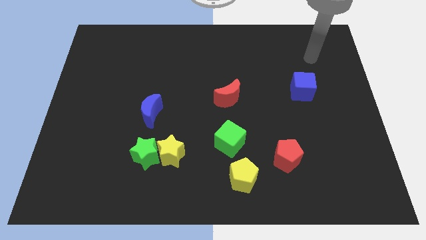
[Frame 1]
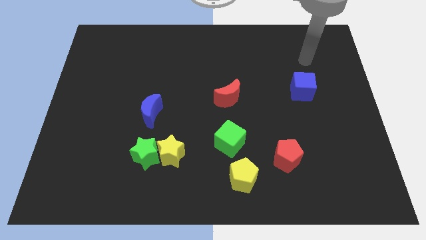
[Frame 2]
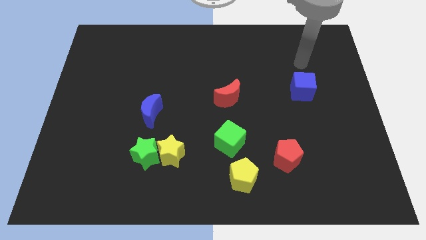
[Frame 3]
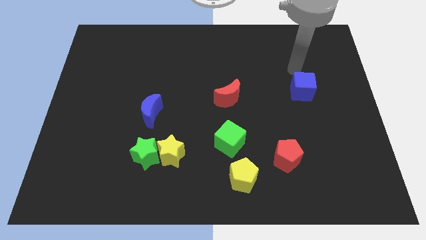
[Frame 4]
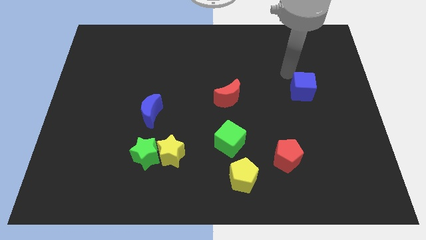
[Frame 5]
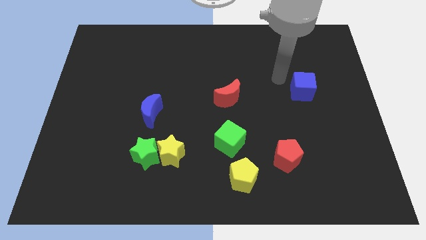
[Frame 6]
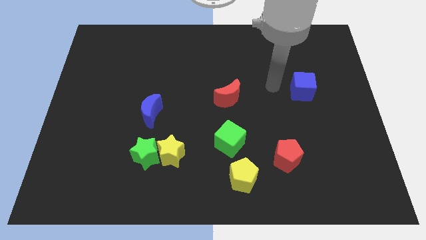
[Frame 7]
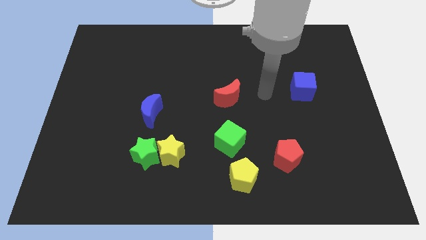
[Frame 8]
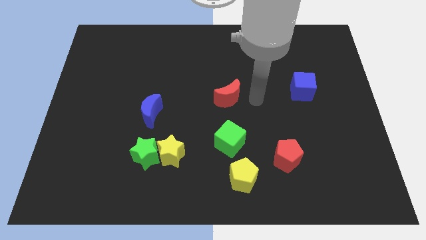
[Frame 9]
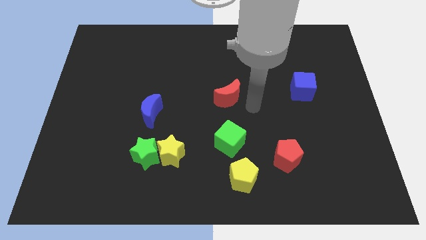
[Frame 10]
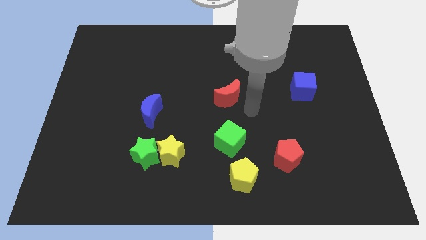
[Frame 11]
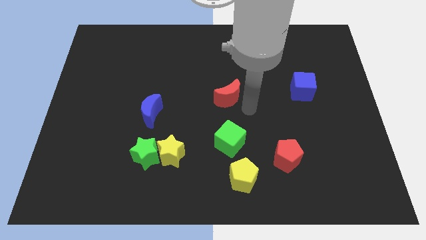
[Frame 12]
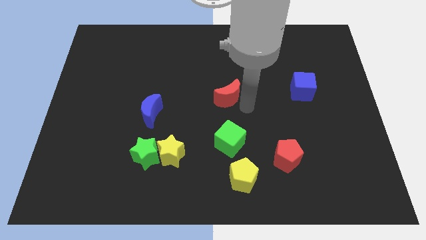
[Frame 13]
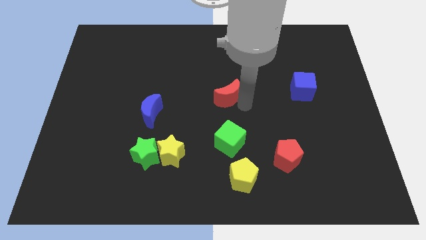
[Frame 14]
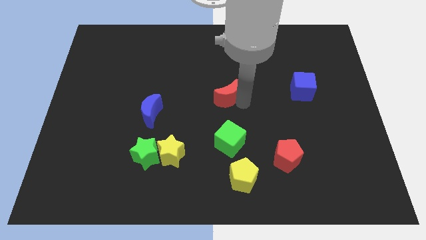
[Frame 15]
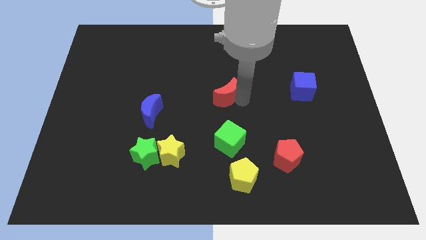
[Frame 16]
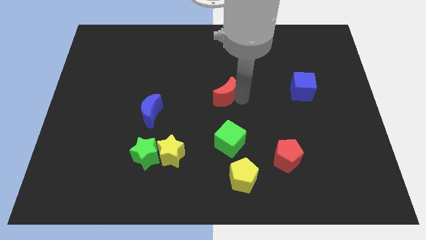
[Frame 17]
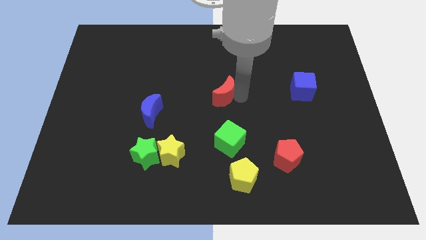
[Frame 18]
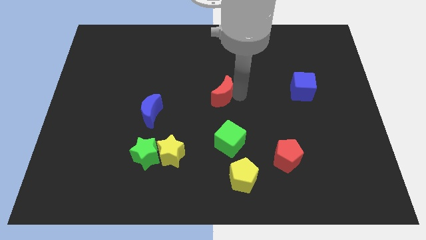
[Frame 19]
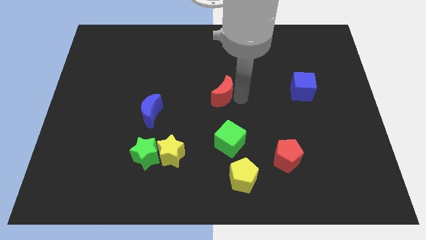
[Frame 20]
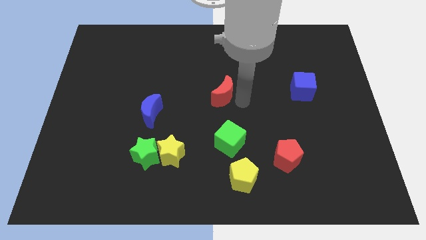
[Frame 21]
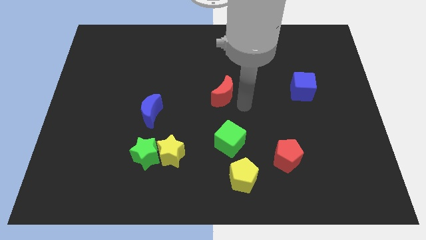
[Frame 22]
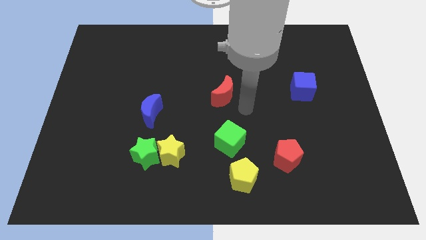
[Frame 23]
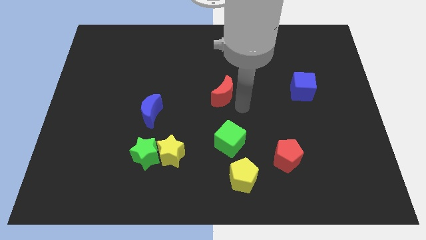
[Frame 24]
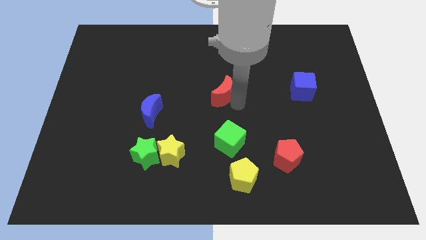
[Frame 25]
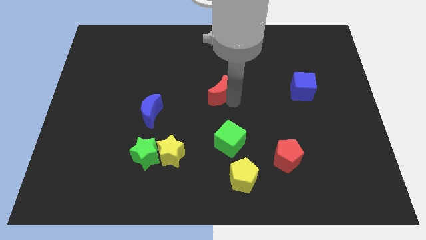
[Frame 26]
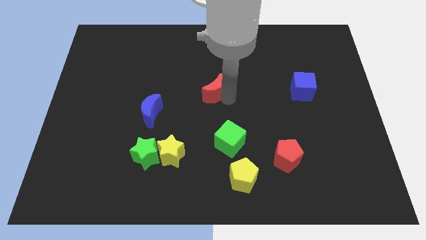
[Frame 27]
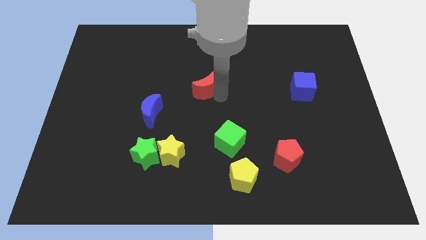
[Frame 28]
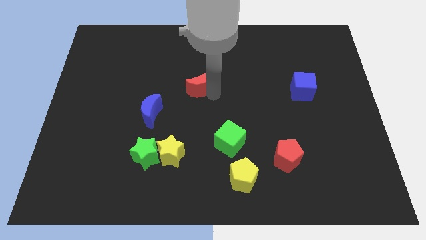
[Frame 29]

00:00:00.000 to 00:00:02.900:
move the red moon a little upwards and then left

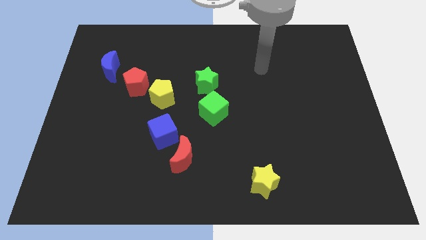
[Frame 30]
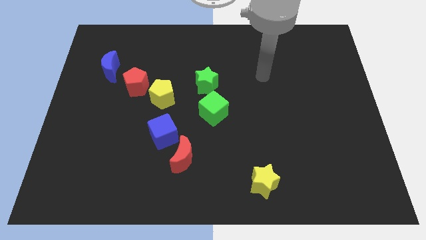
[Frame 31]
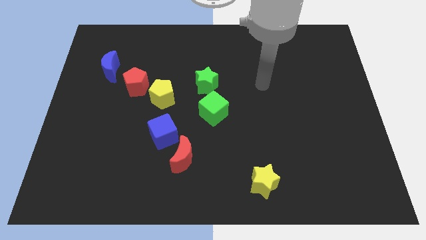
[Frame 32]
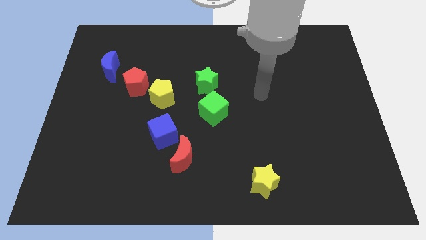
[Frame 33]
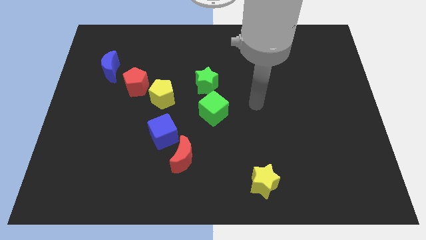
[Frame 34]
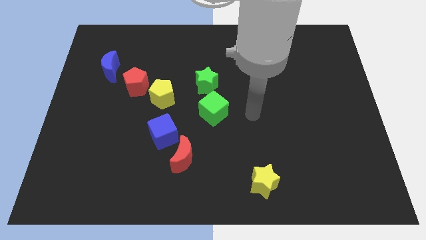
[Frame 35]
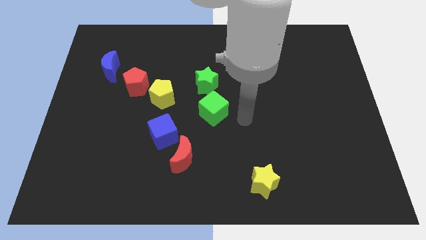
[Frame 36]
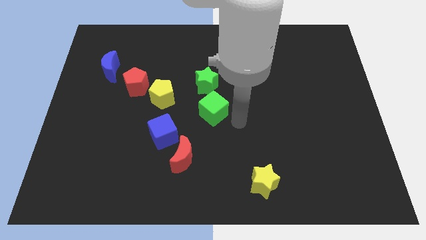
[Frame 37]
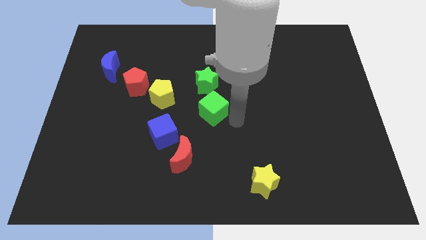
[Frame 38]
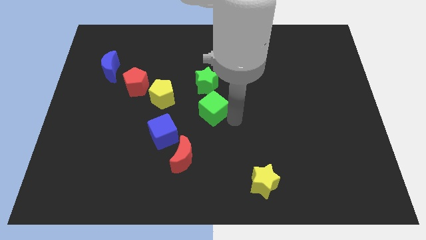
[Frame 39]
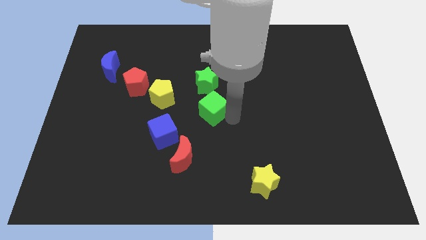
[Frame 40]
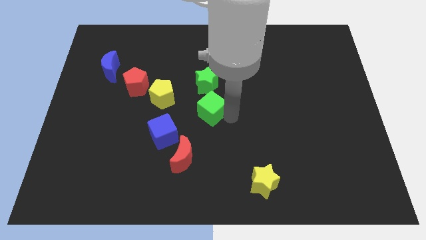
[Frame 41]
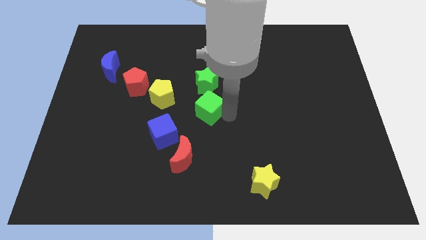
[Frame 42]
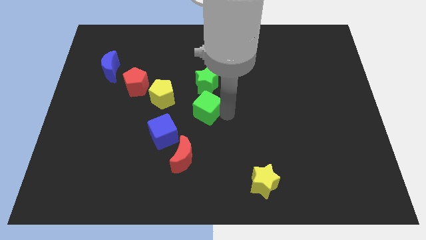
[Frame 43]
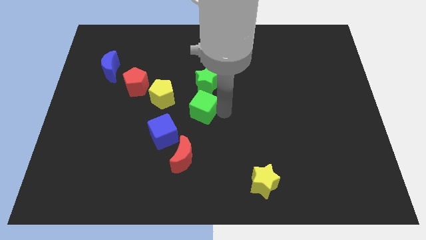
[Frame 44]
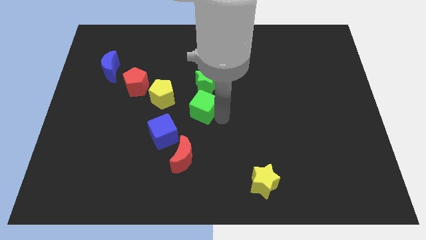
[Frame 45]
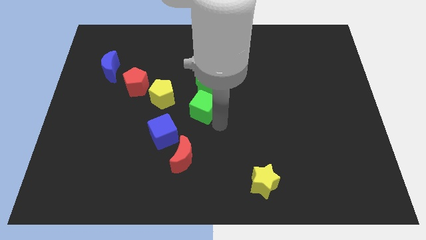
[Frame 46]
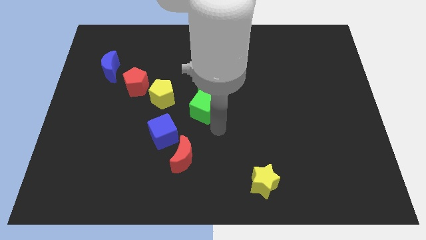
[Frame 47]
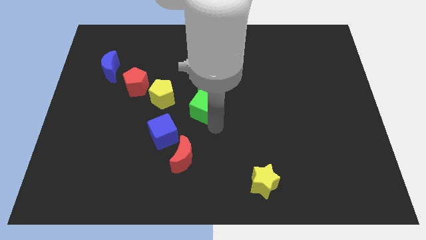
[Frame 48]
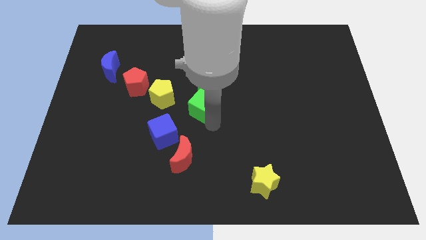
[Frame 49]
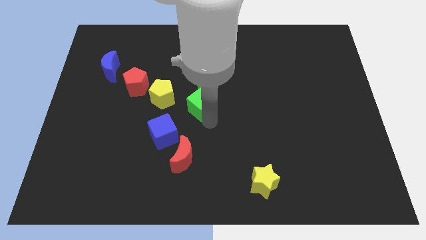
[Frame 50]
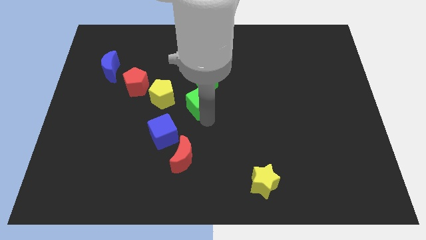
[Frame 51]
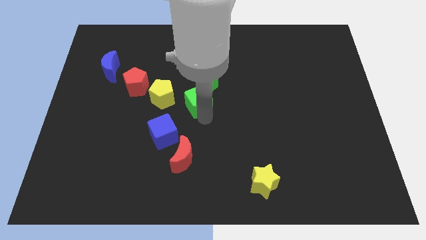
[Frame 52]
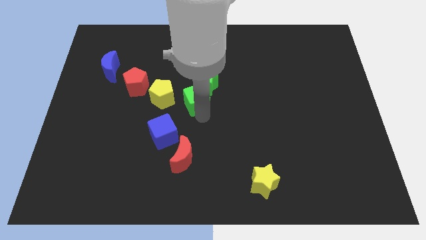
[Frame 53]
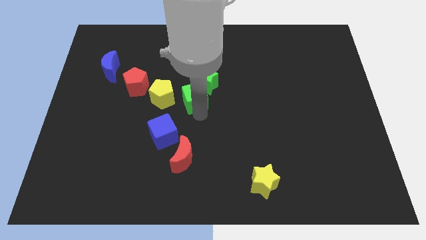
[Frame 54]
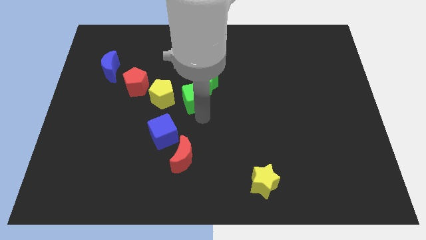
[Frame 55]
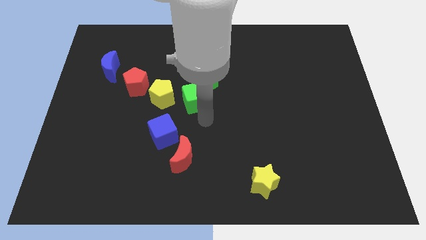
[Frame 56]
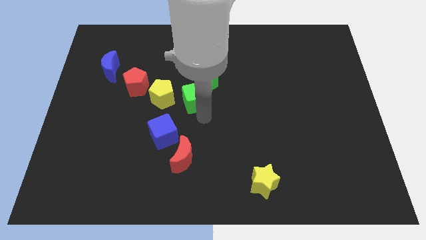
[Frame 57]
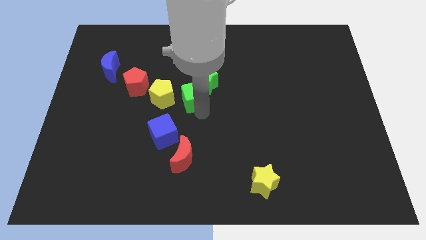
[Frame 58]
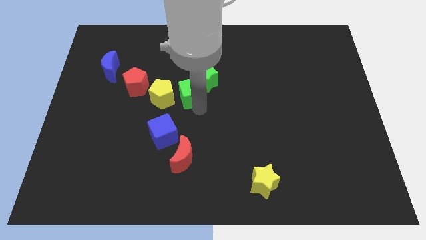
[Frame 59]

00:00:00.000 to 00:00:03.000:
push the green cube a little up and then left

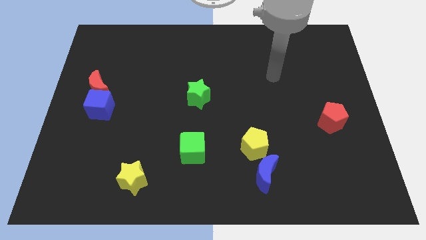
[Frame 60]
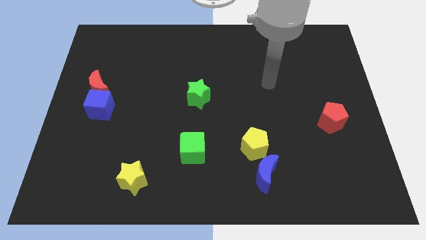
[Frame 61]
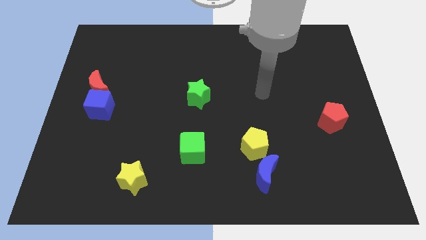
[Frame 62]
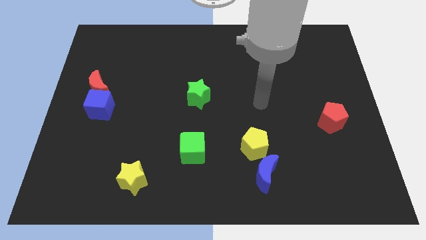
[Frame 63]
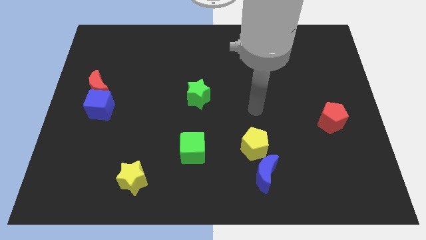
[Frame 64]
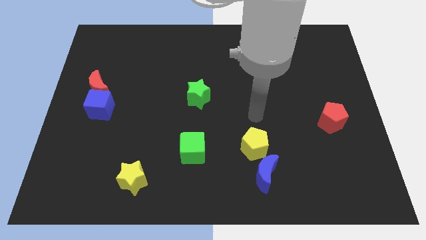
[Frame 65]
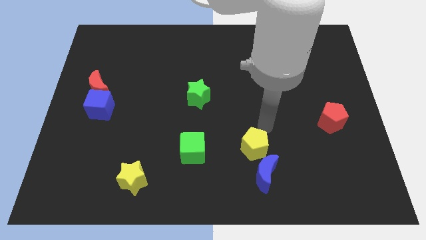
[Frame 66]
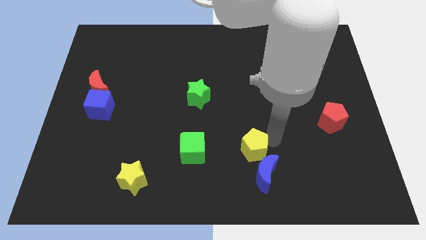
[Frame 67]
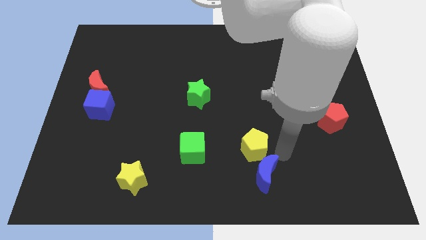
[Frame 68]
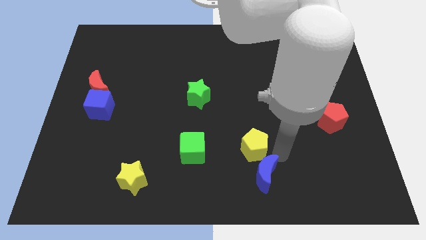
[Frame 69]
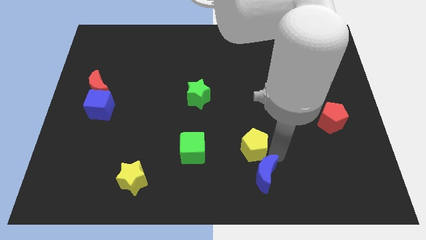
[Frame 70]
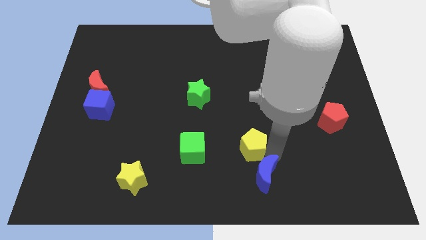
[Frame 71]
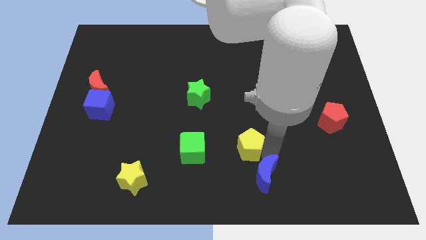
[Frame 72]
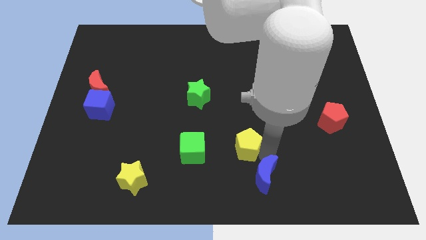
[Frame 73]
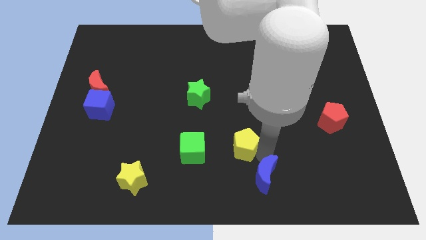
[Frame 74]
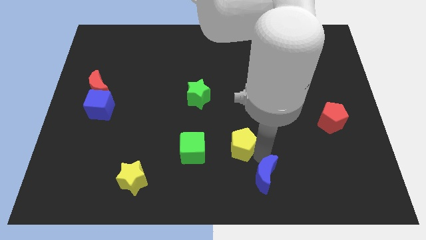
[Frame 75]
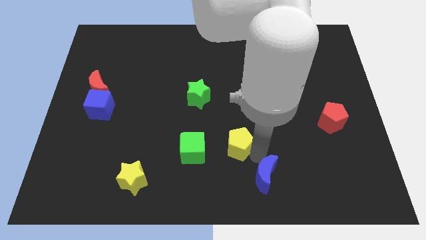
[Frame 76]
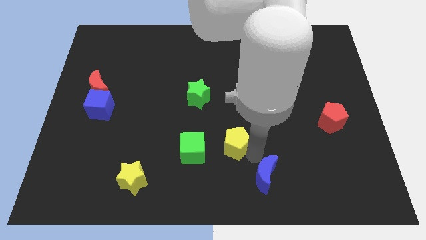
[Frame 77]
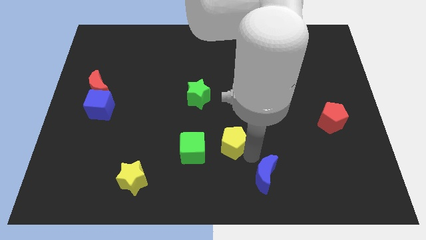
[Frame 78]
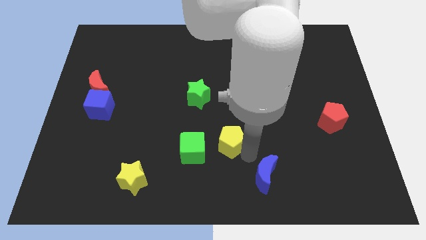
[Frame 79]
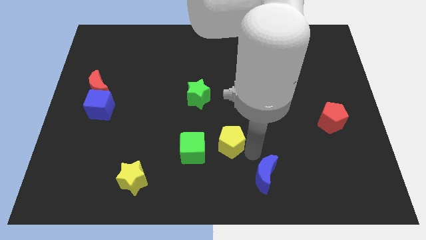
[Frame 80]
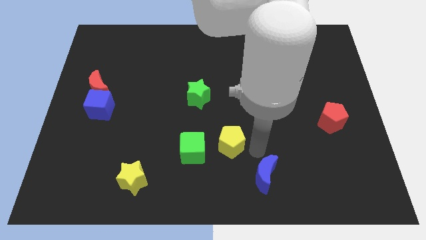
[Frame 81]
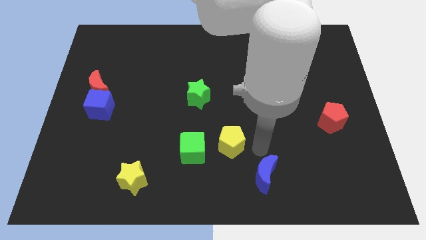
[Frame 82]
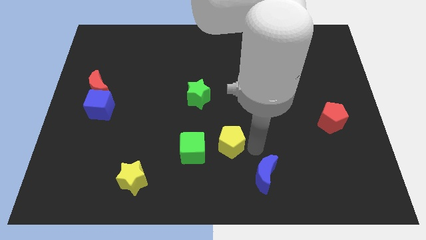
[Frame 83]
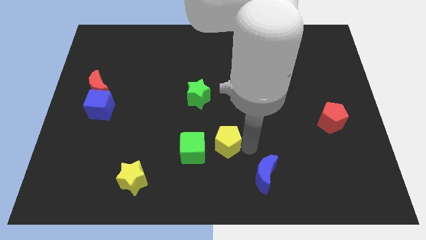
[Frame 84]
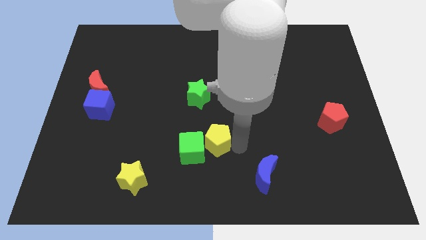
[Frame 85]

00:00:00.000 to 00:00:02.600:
slide the yellow pentagon a little to the left
